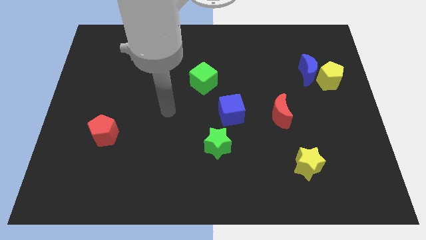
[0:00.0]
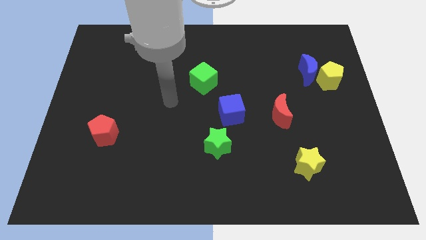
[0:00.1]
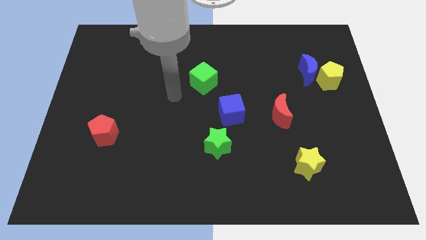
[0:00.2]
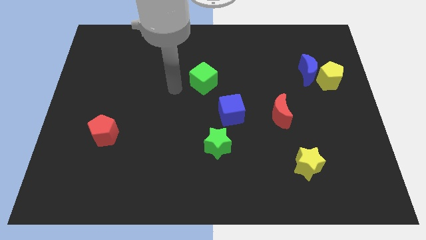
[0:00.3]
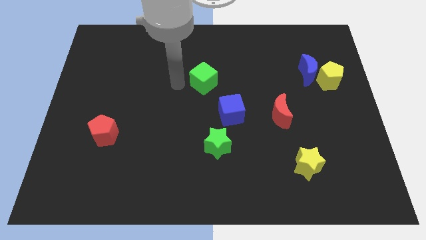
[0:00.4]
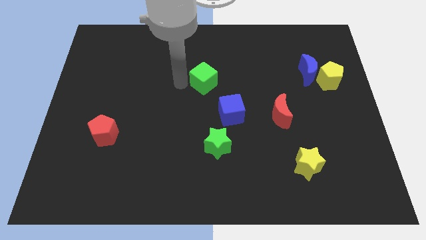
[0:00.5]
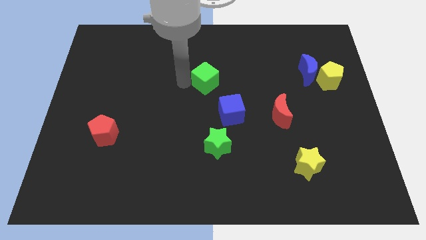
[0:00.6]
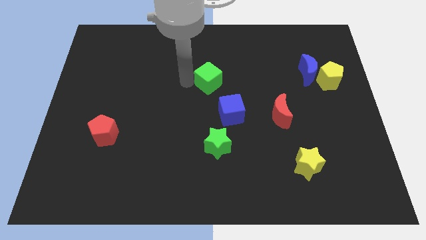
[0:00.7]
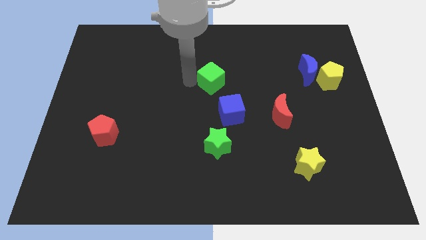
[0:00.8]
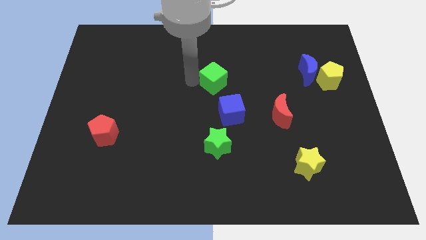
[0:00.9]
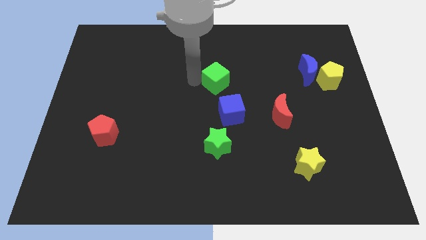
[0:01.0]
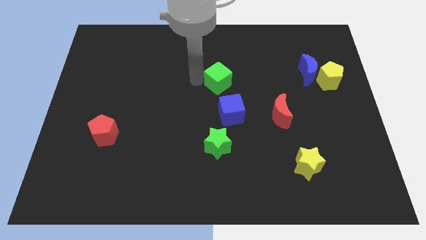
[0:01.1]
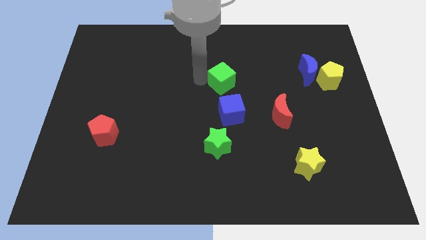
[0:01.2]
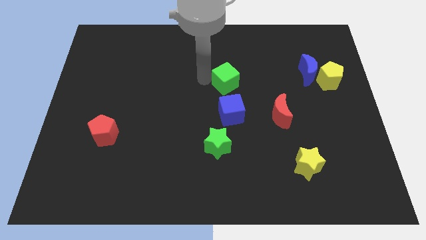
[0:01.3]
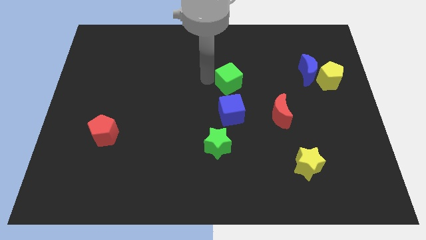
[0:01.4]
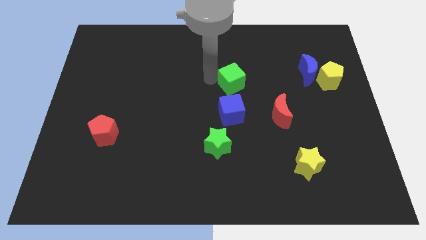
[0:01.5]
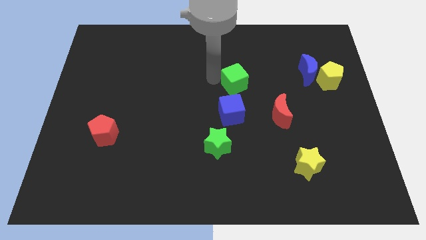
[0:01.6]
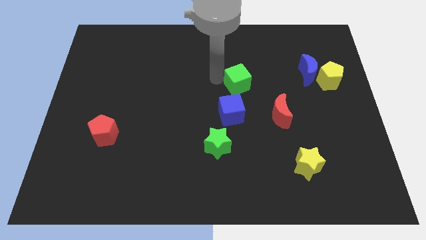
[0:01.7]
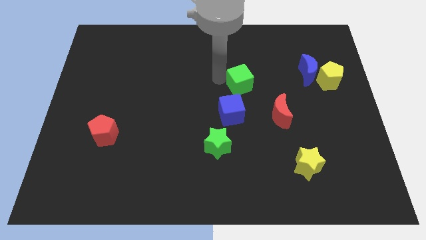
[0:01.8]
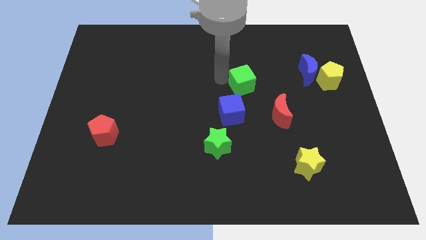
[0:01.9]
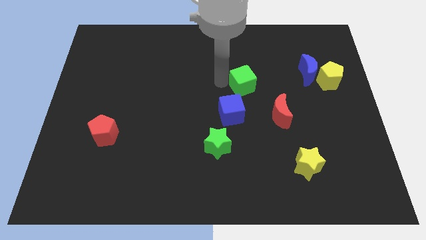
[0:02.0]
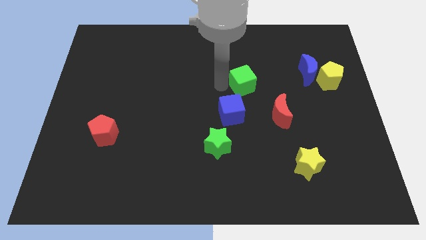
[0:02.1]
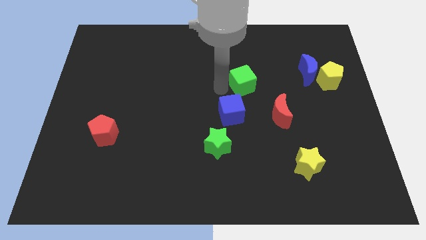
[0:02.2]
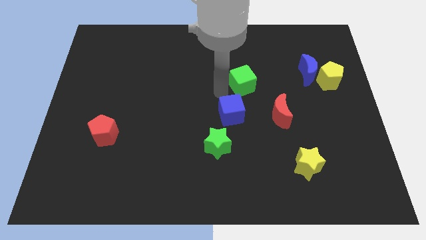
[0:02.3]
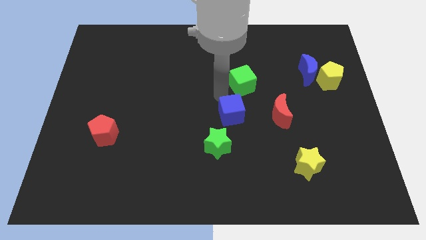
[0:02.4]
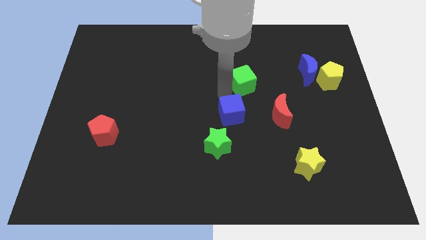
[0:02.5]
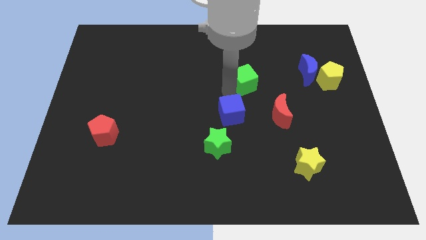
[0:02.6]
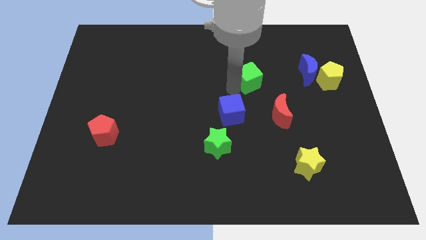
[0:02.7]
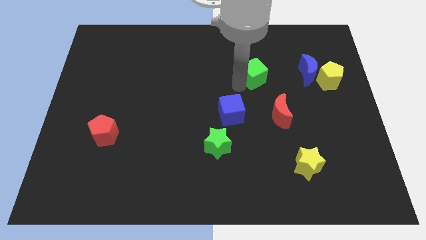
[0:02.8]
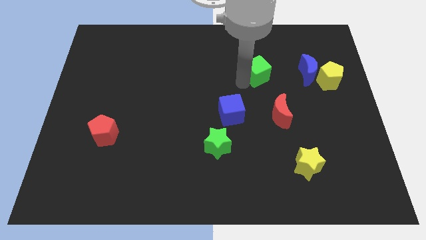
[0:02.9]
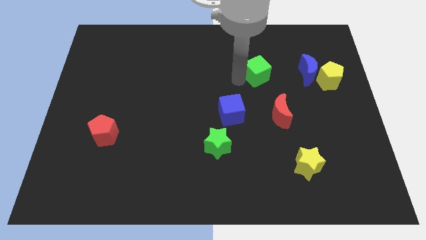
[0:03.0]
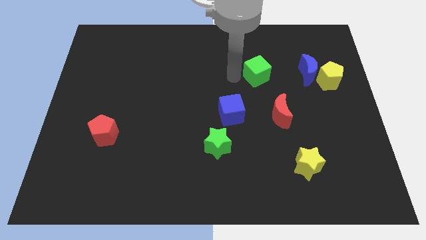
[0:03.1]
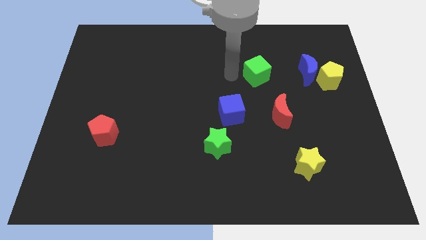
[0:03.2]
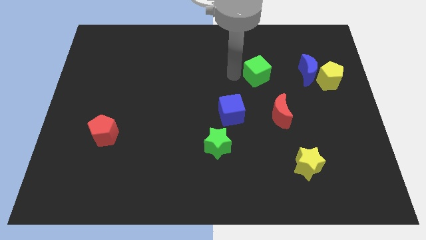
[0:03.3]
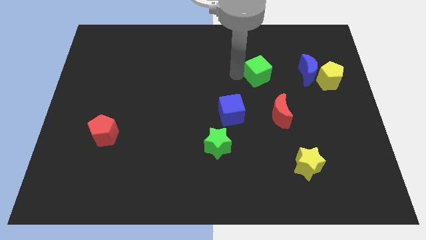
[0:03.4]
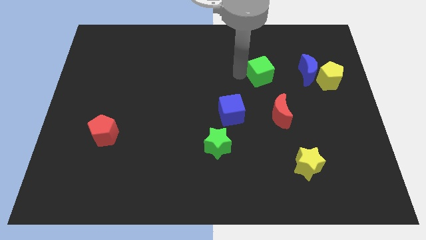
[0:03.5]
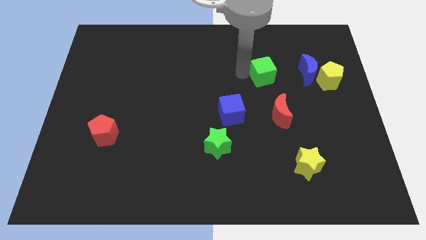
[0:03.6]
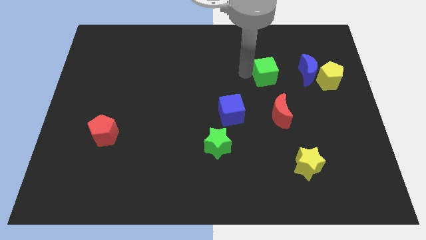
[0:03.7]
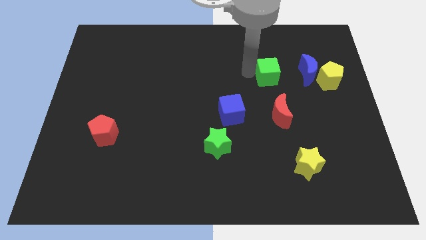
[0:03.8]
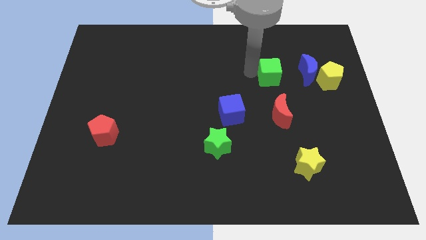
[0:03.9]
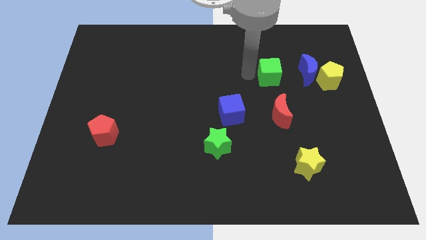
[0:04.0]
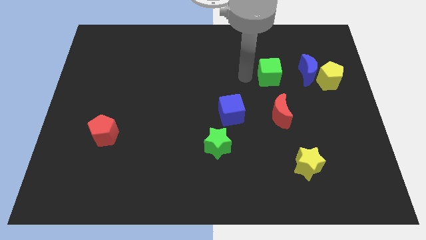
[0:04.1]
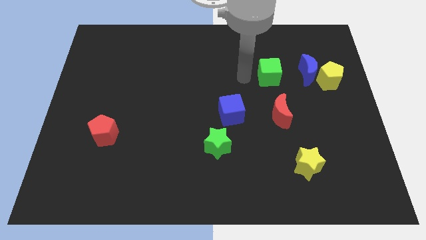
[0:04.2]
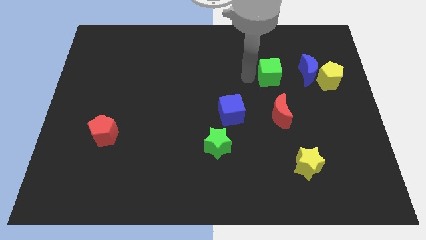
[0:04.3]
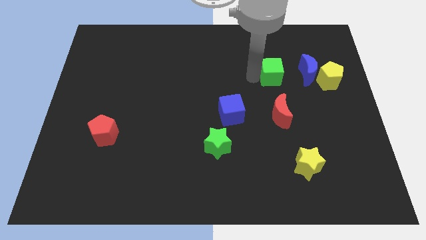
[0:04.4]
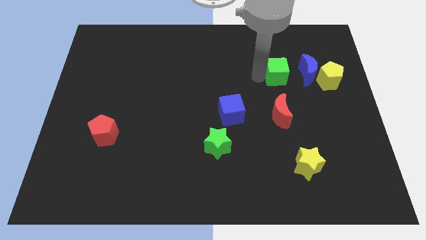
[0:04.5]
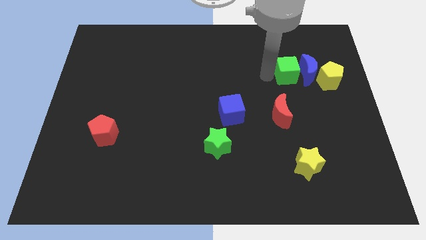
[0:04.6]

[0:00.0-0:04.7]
slide the green cube to the blue moon

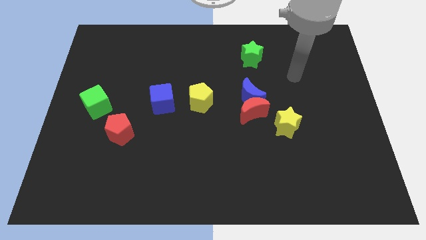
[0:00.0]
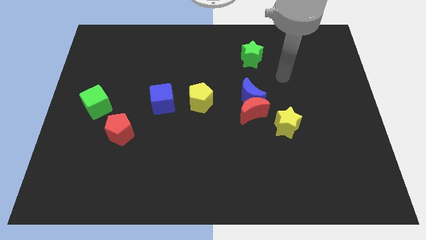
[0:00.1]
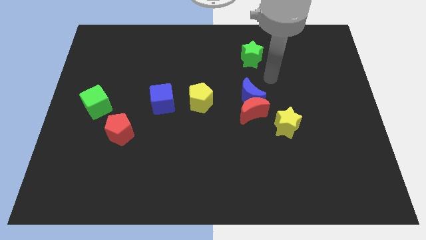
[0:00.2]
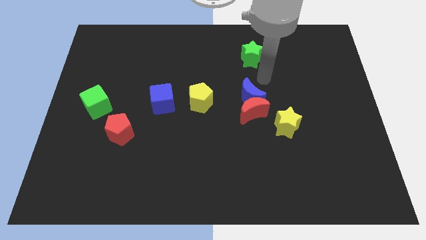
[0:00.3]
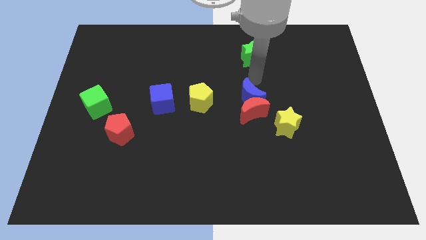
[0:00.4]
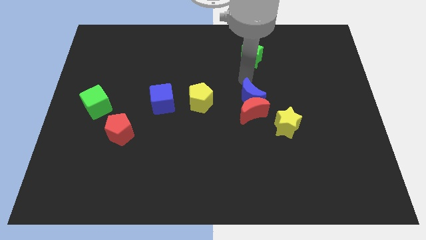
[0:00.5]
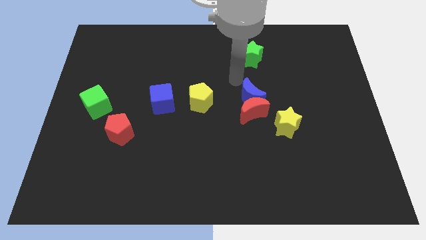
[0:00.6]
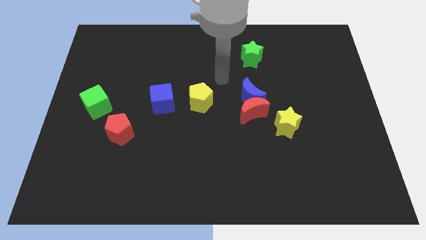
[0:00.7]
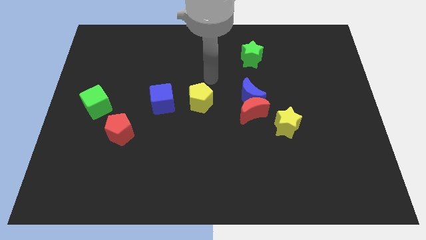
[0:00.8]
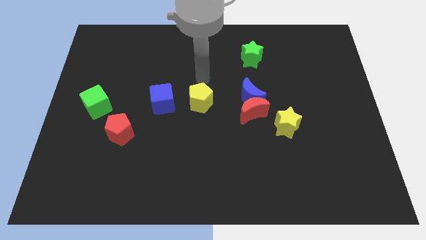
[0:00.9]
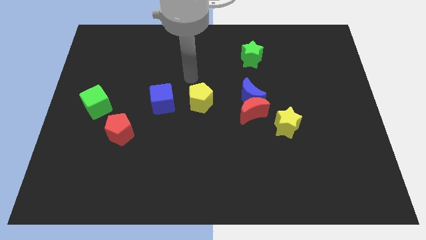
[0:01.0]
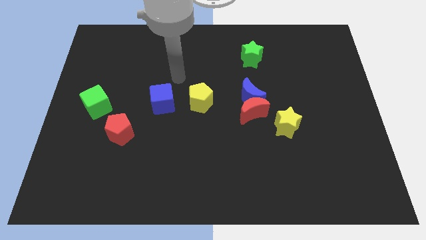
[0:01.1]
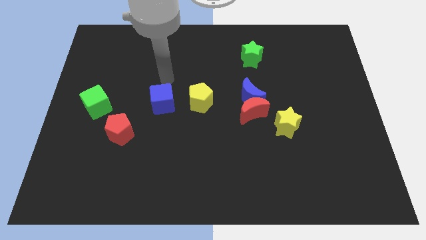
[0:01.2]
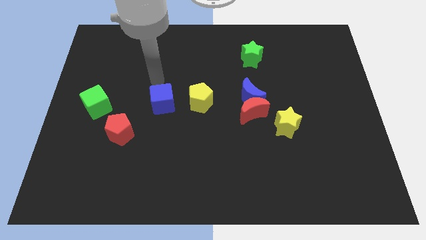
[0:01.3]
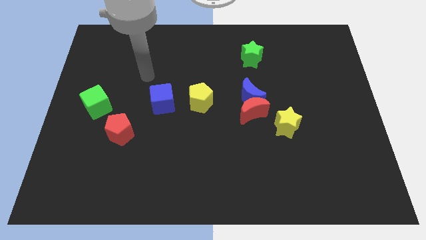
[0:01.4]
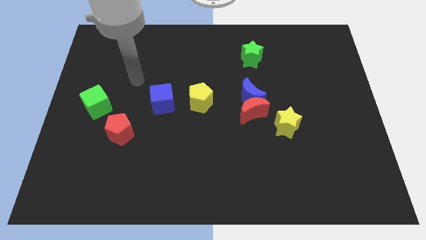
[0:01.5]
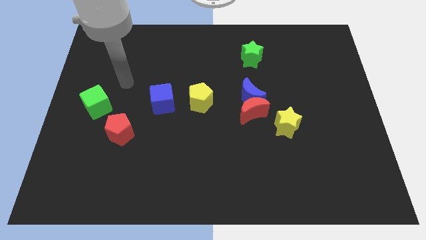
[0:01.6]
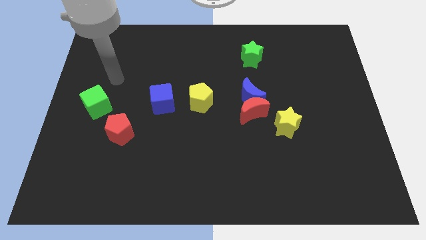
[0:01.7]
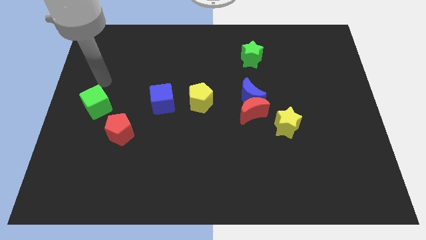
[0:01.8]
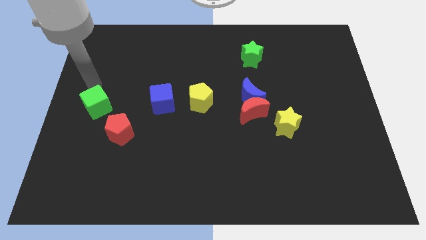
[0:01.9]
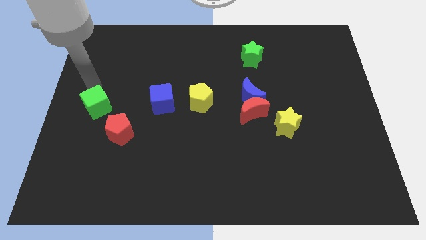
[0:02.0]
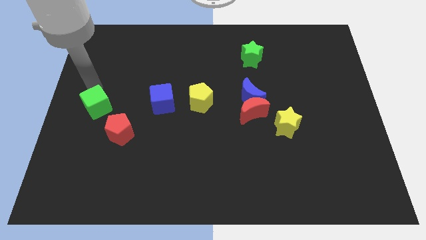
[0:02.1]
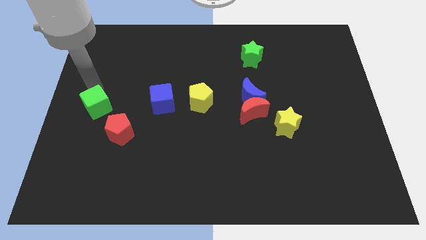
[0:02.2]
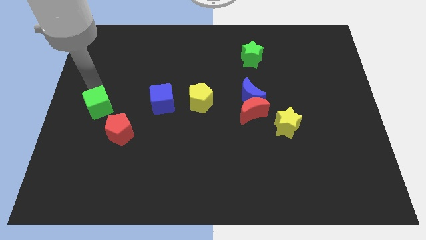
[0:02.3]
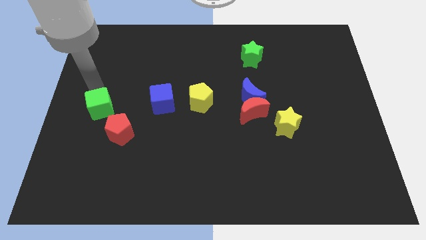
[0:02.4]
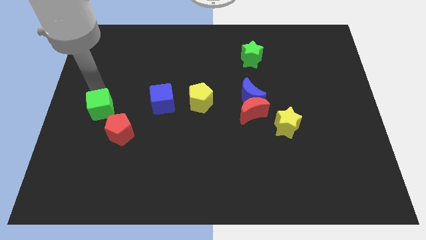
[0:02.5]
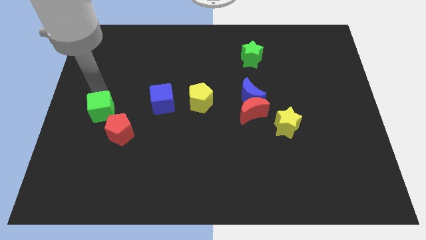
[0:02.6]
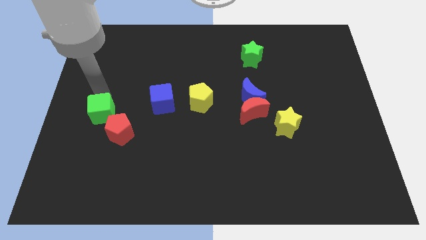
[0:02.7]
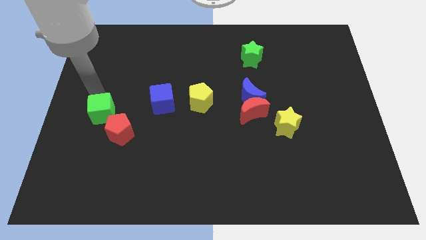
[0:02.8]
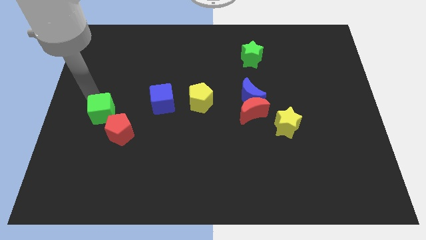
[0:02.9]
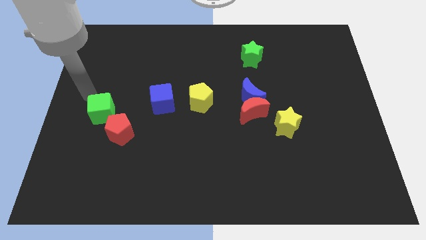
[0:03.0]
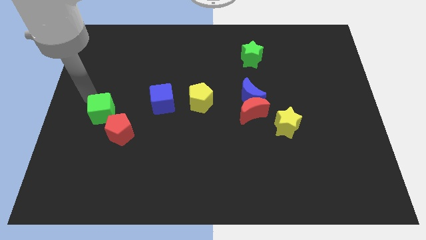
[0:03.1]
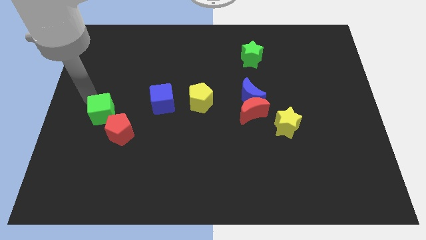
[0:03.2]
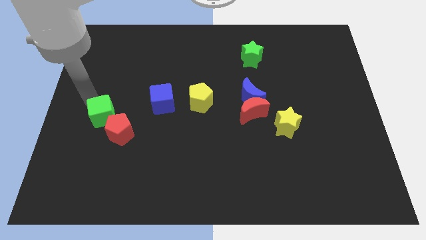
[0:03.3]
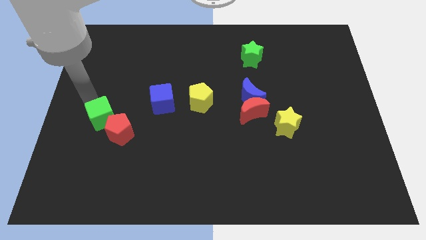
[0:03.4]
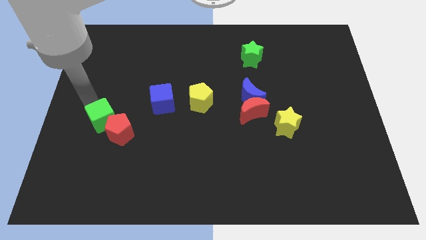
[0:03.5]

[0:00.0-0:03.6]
push the green cube to the red pentagon
